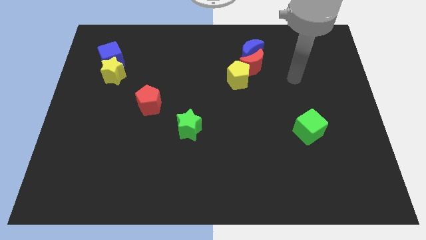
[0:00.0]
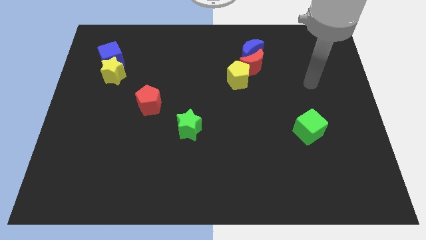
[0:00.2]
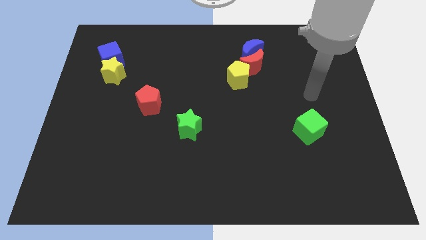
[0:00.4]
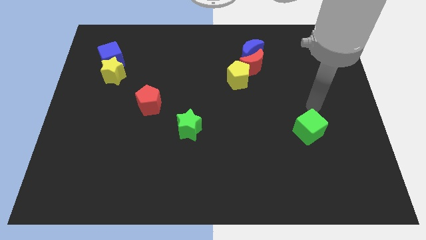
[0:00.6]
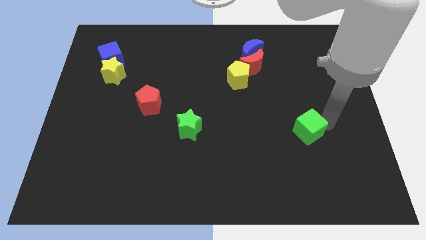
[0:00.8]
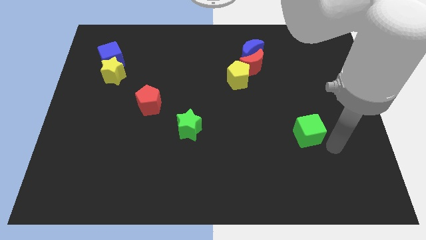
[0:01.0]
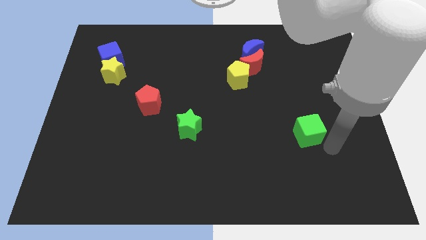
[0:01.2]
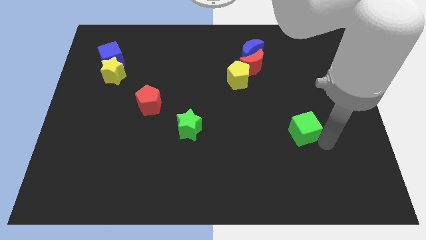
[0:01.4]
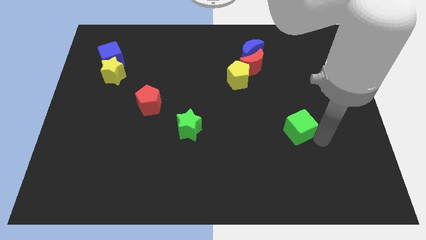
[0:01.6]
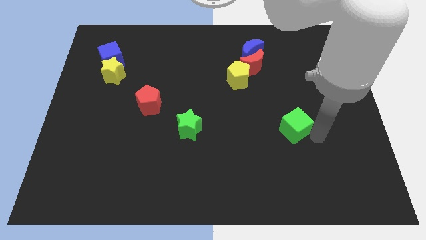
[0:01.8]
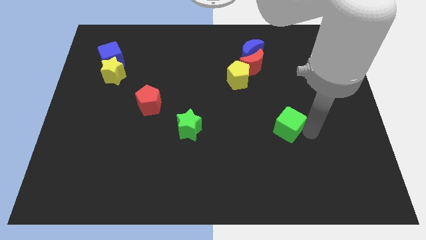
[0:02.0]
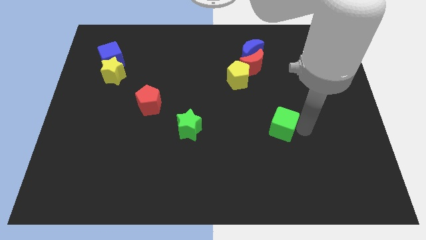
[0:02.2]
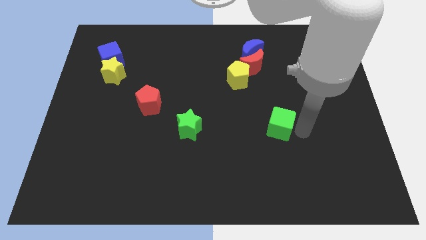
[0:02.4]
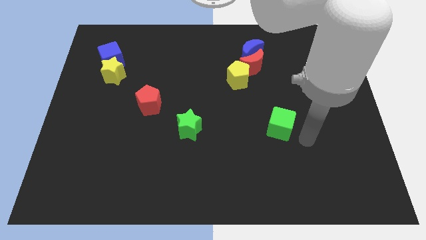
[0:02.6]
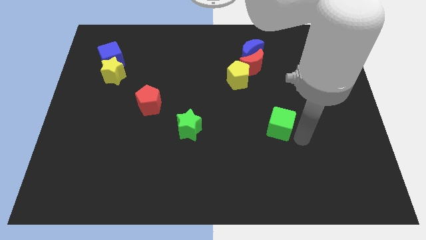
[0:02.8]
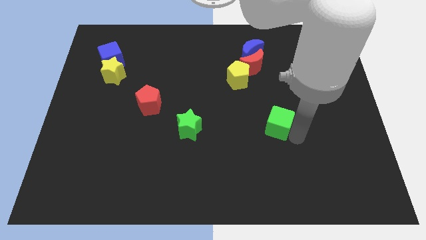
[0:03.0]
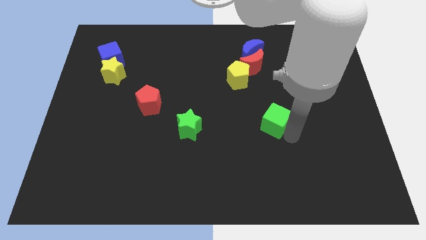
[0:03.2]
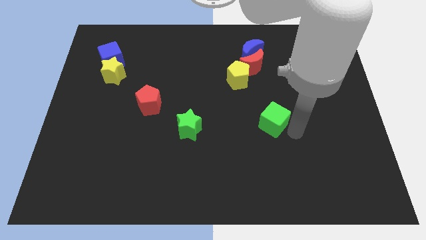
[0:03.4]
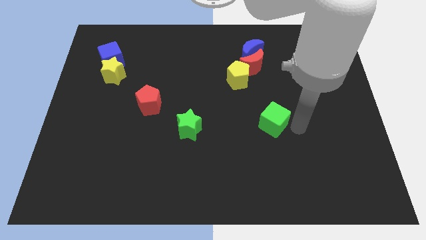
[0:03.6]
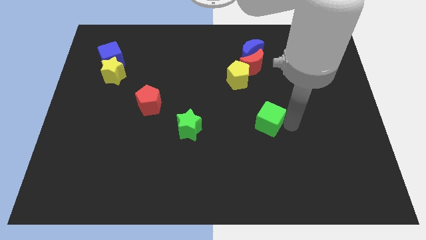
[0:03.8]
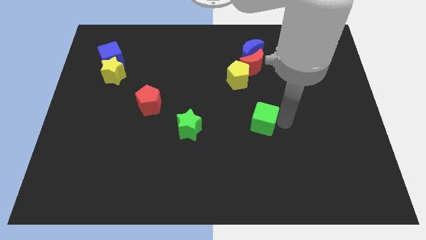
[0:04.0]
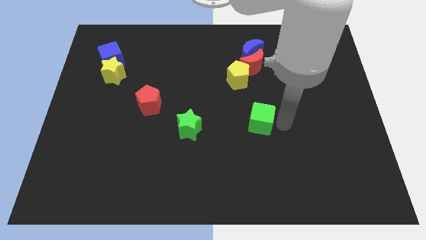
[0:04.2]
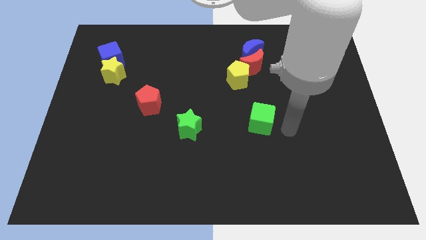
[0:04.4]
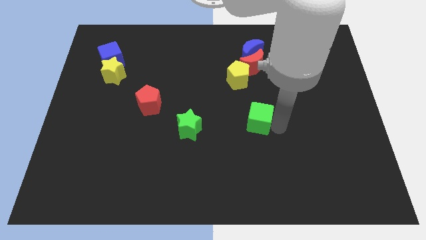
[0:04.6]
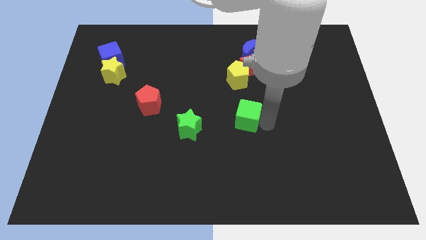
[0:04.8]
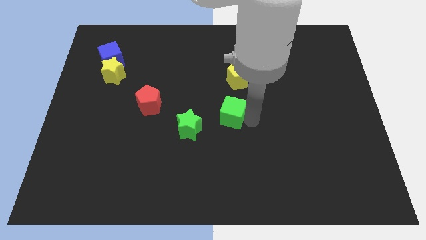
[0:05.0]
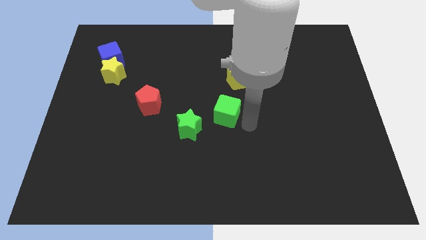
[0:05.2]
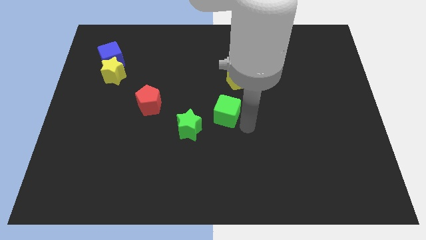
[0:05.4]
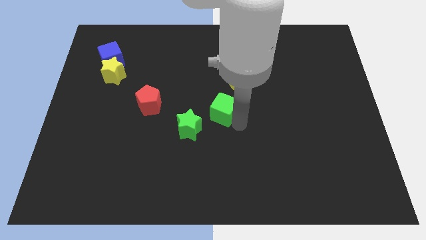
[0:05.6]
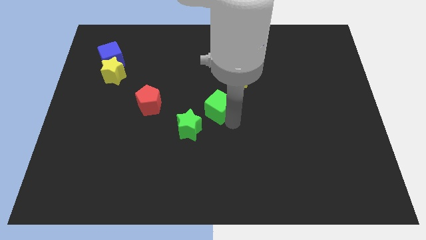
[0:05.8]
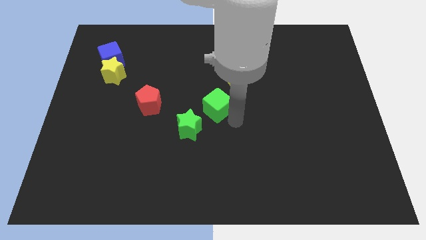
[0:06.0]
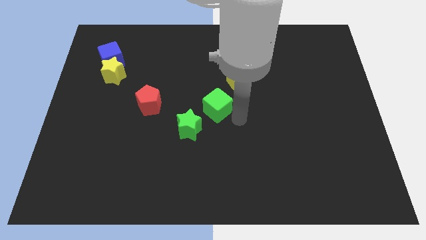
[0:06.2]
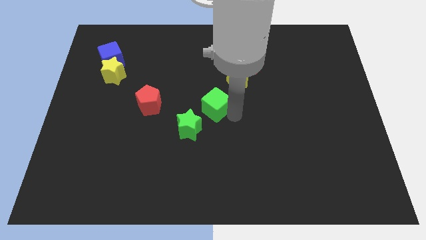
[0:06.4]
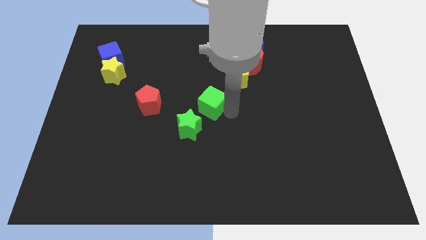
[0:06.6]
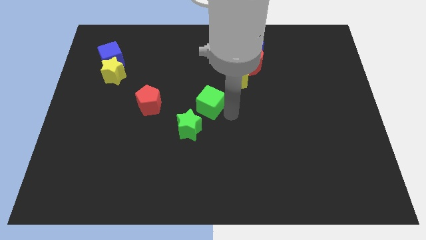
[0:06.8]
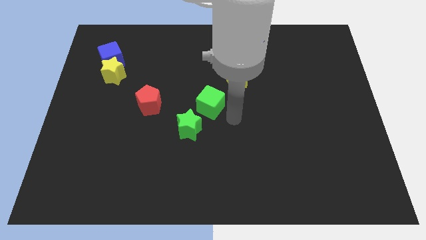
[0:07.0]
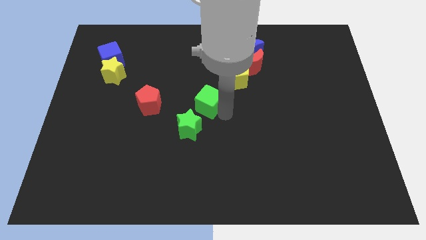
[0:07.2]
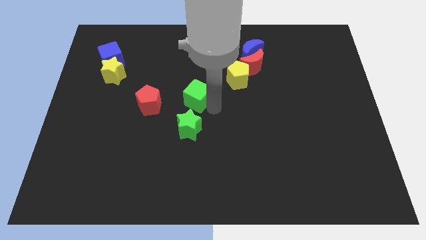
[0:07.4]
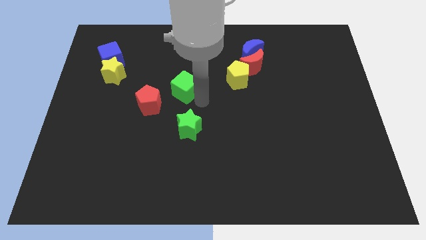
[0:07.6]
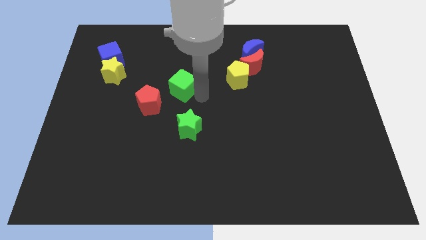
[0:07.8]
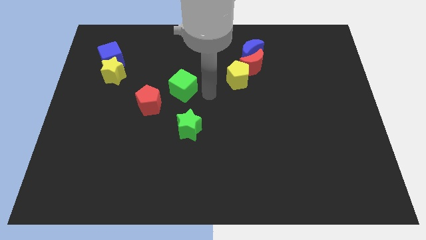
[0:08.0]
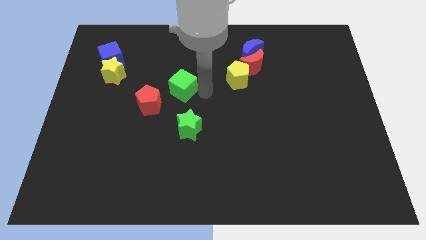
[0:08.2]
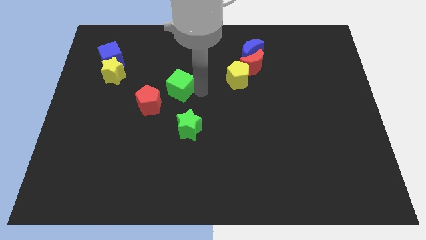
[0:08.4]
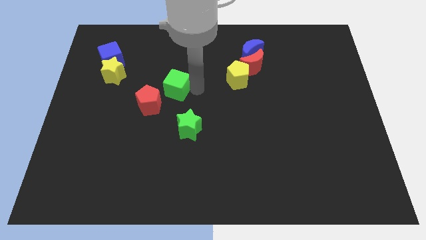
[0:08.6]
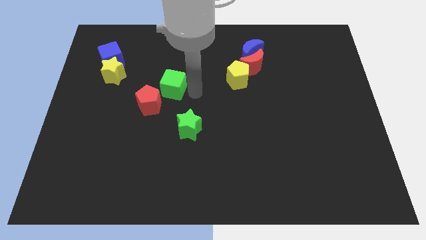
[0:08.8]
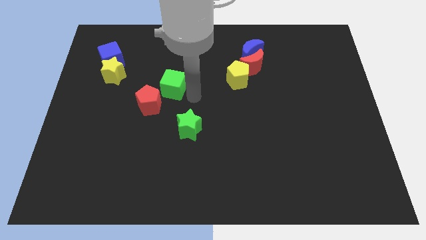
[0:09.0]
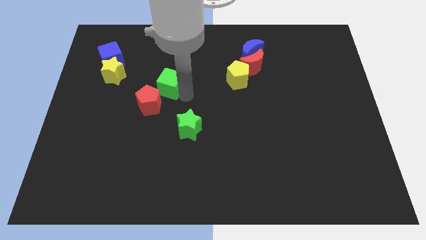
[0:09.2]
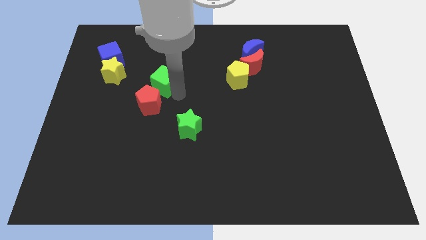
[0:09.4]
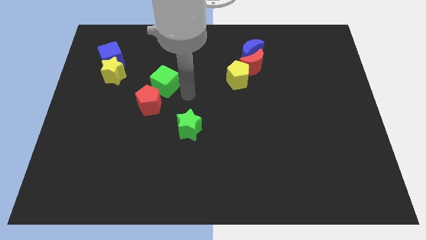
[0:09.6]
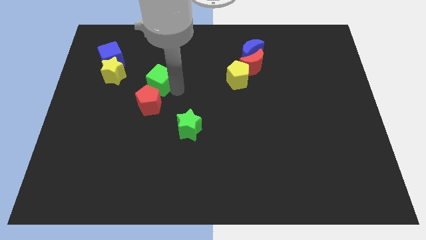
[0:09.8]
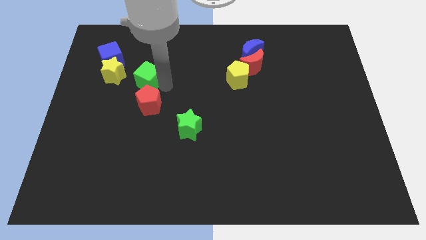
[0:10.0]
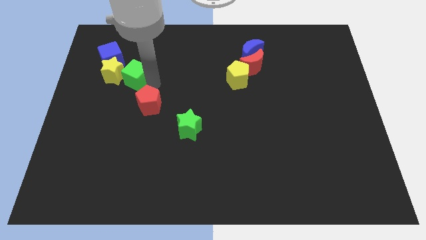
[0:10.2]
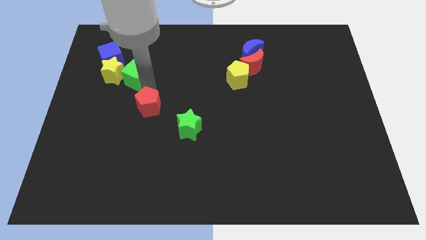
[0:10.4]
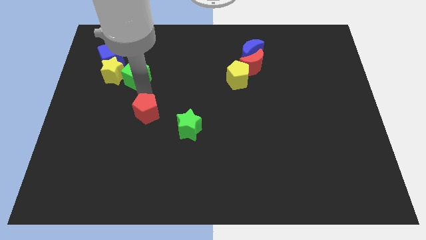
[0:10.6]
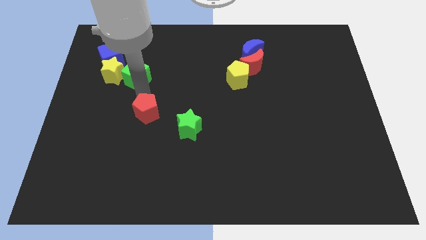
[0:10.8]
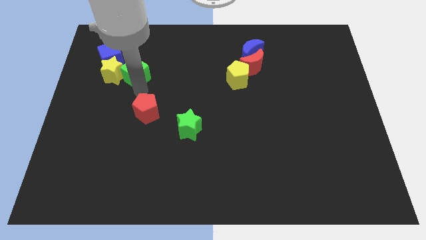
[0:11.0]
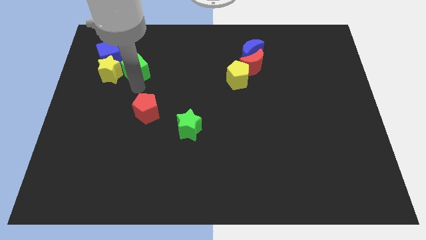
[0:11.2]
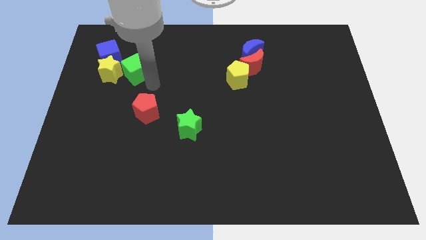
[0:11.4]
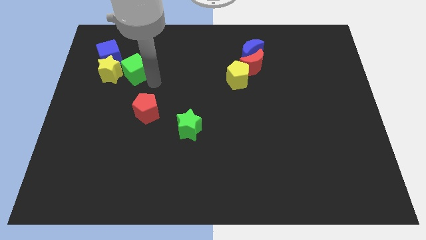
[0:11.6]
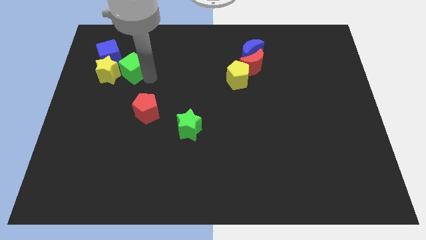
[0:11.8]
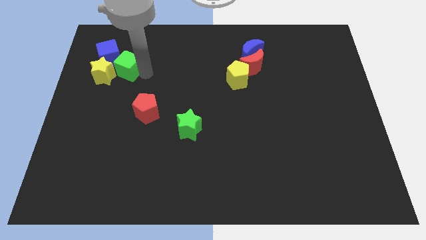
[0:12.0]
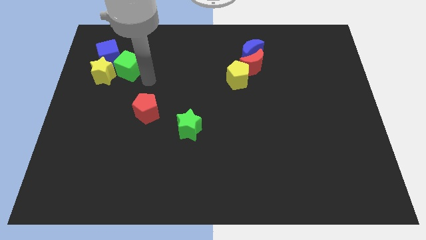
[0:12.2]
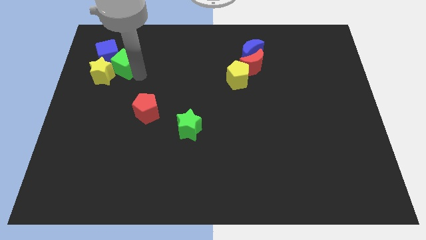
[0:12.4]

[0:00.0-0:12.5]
push the green cube next to the blue cube

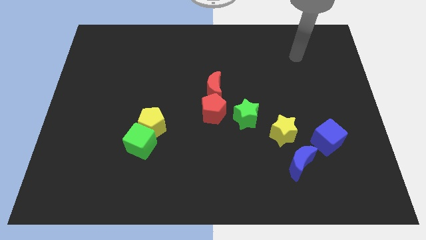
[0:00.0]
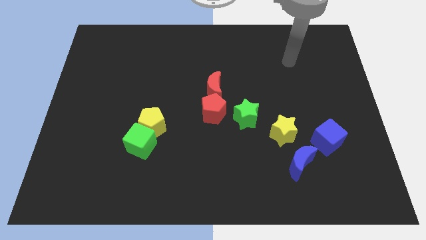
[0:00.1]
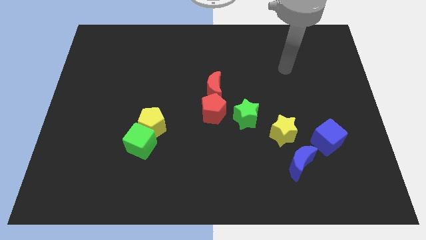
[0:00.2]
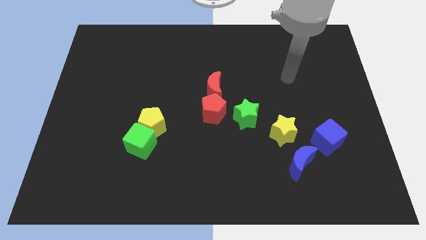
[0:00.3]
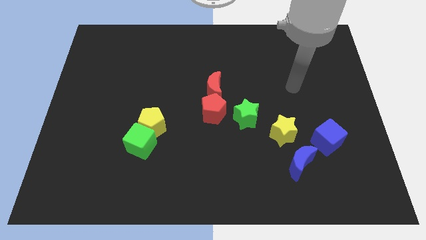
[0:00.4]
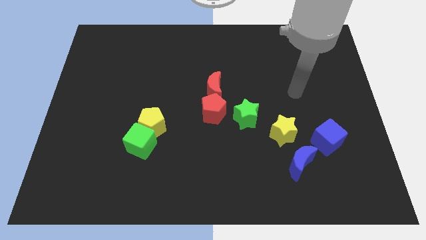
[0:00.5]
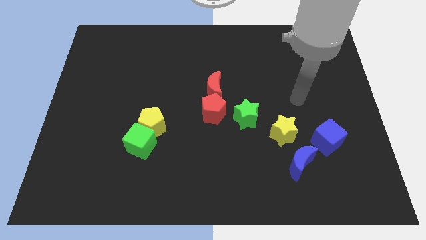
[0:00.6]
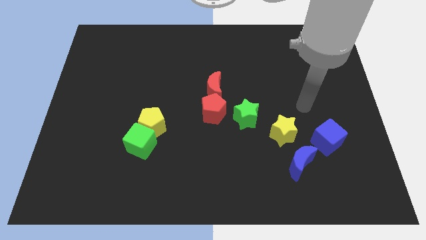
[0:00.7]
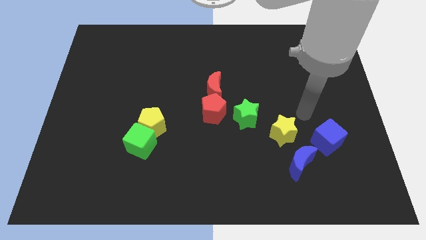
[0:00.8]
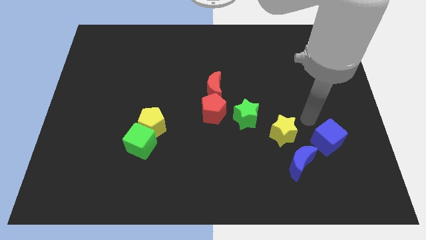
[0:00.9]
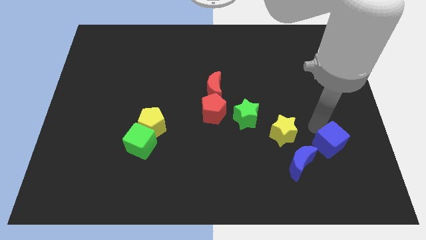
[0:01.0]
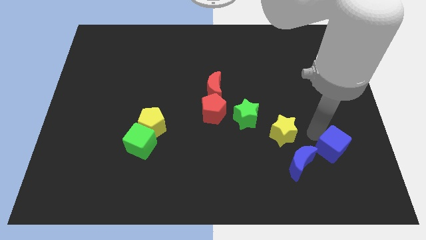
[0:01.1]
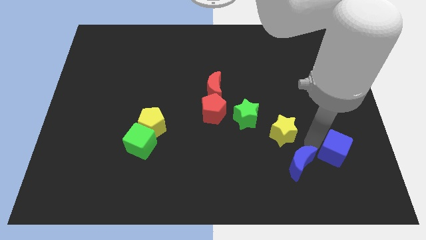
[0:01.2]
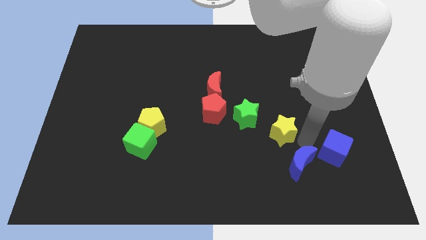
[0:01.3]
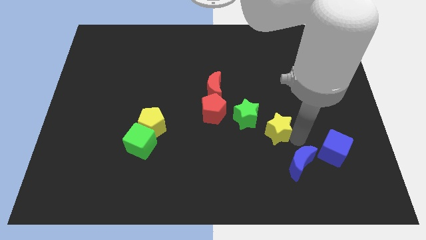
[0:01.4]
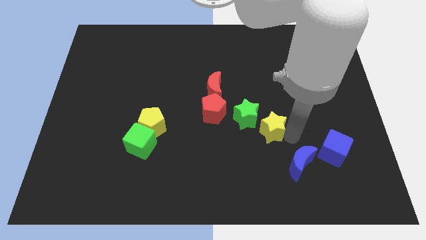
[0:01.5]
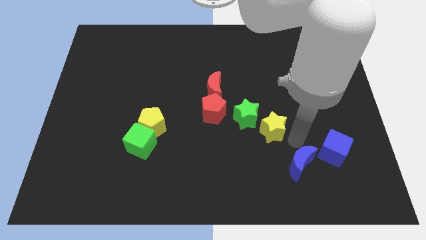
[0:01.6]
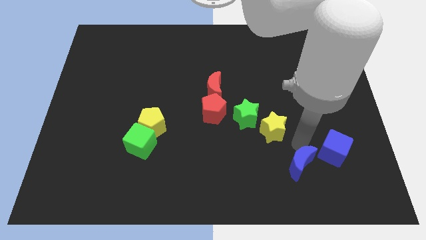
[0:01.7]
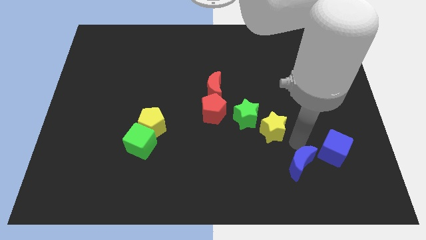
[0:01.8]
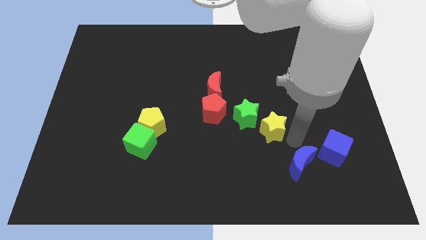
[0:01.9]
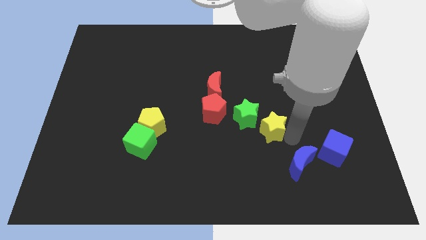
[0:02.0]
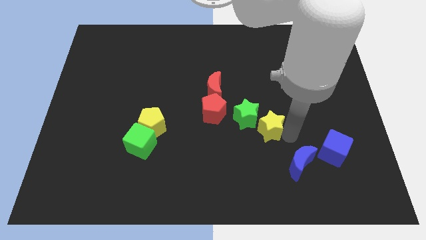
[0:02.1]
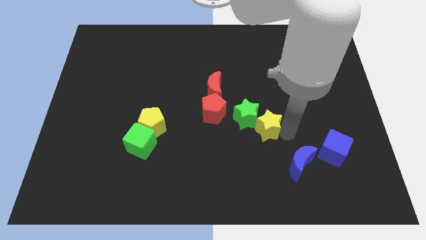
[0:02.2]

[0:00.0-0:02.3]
put the yellow star to the green star
